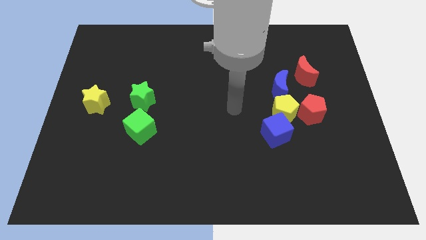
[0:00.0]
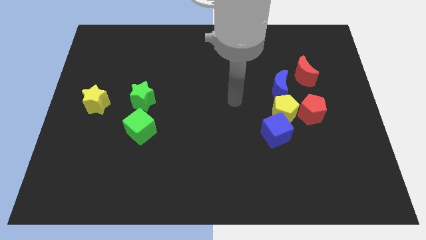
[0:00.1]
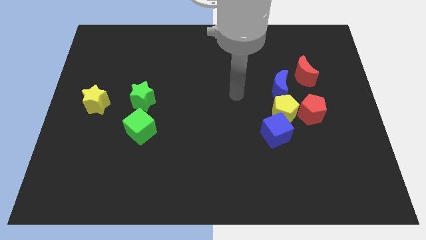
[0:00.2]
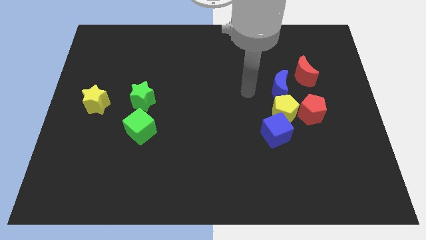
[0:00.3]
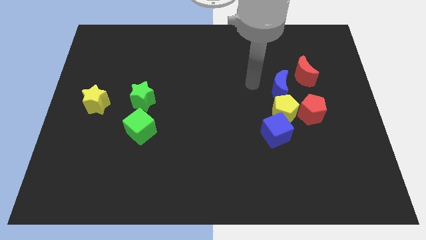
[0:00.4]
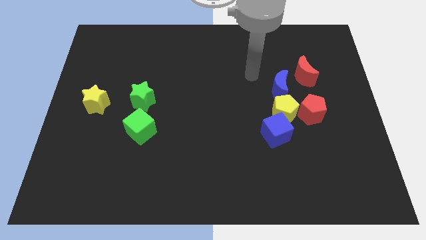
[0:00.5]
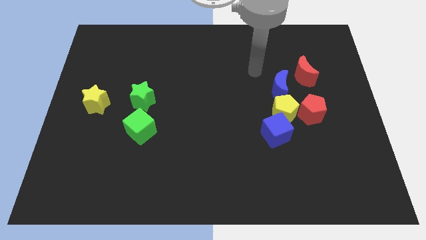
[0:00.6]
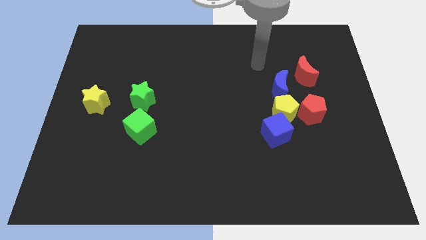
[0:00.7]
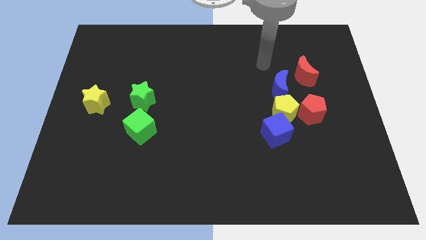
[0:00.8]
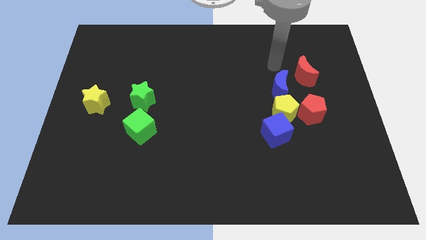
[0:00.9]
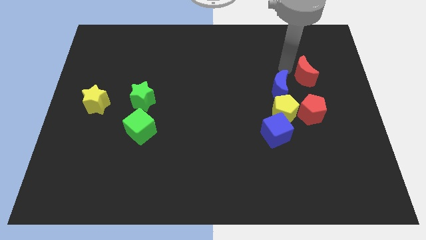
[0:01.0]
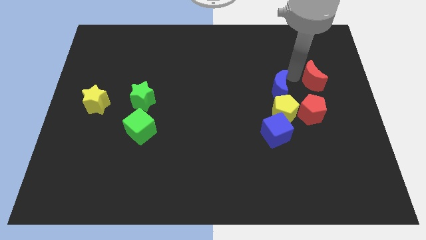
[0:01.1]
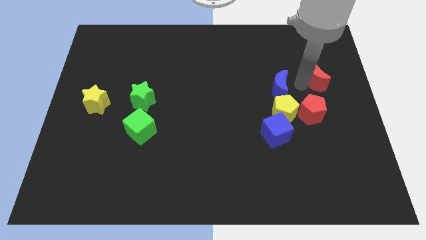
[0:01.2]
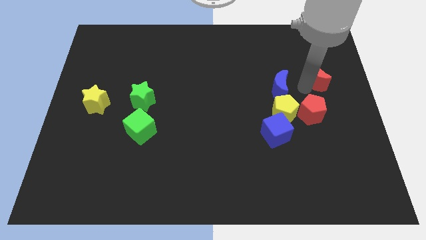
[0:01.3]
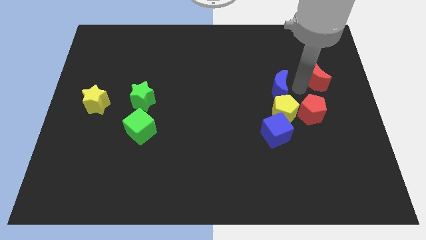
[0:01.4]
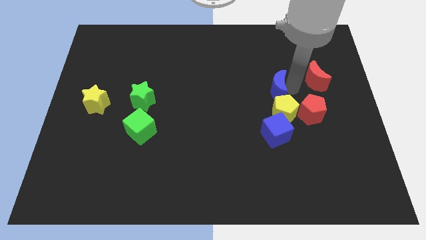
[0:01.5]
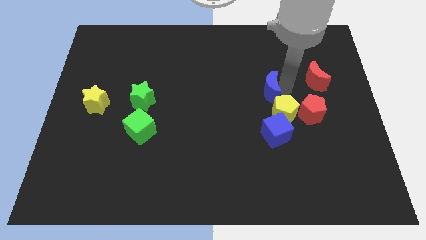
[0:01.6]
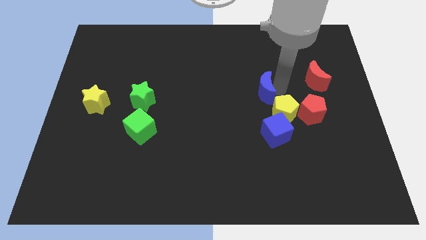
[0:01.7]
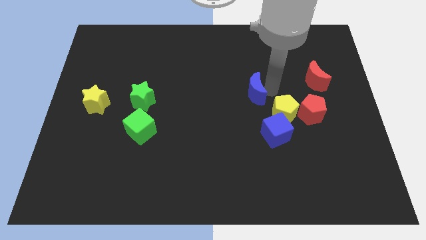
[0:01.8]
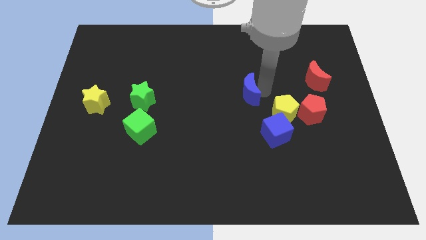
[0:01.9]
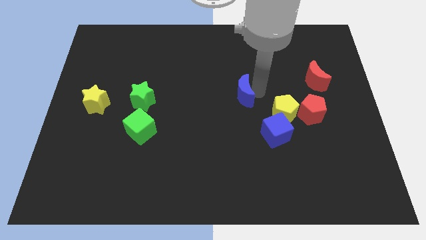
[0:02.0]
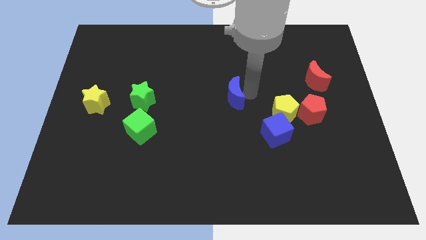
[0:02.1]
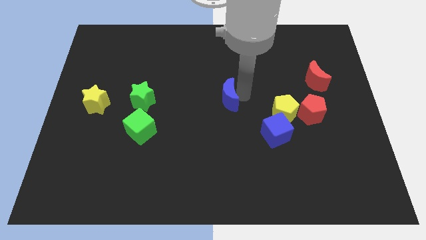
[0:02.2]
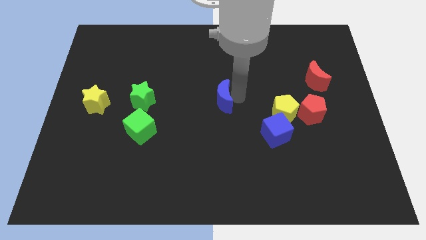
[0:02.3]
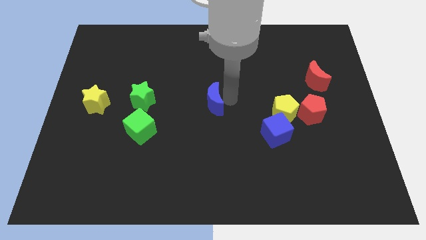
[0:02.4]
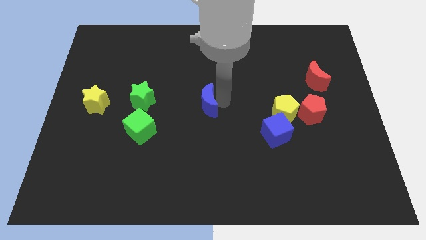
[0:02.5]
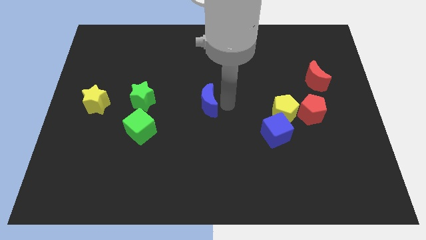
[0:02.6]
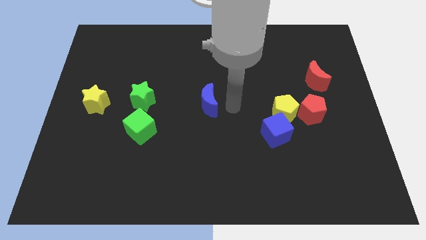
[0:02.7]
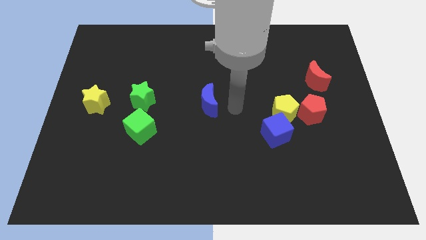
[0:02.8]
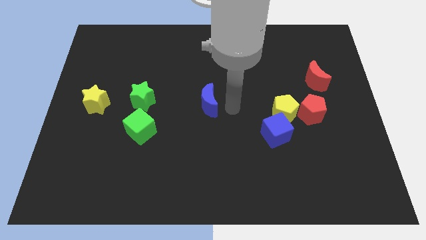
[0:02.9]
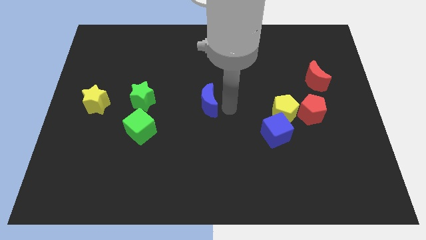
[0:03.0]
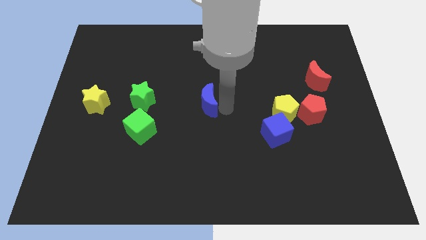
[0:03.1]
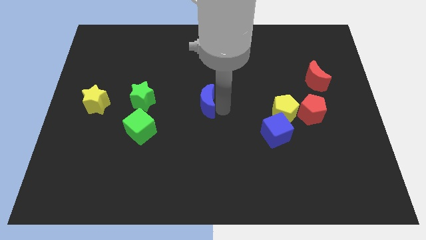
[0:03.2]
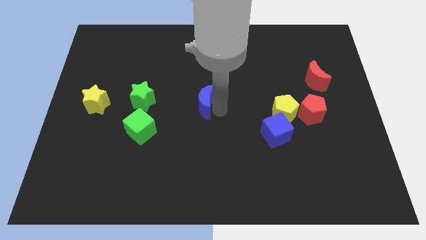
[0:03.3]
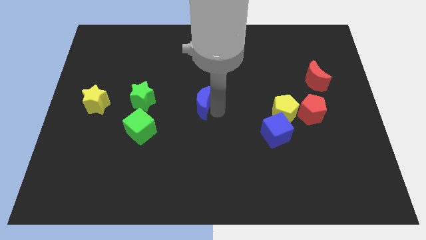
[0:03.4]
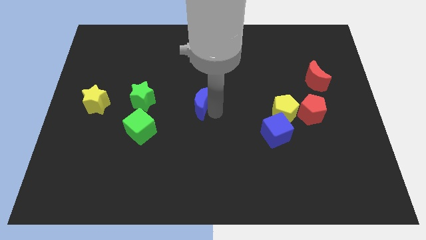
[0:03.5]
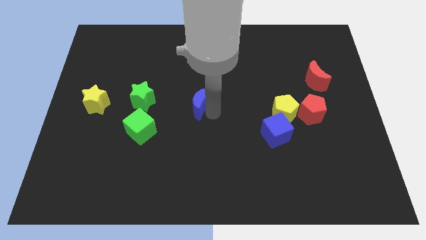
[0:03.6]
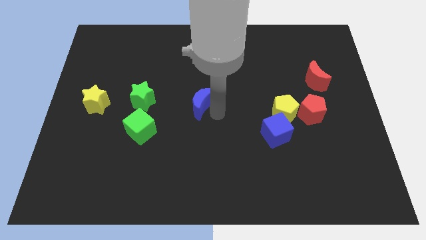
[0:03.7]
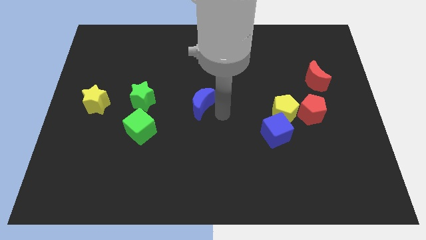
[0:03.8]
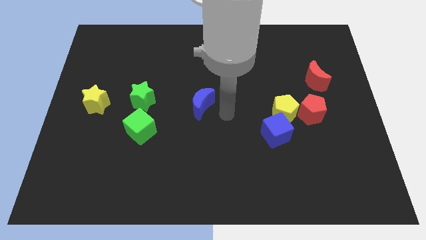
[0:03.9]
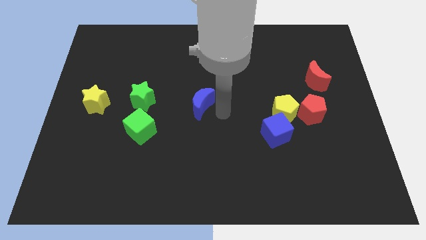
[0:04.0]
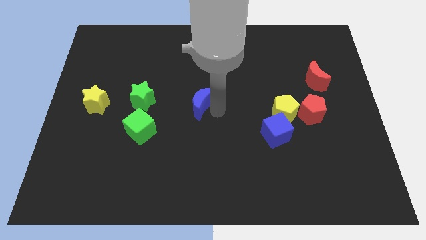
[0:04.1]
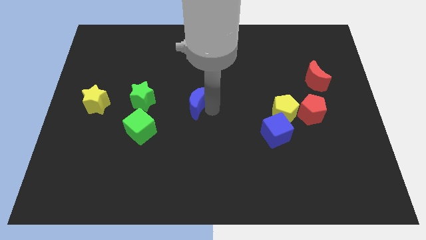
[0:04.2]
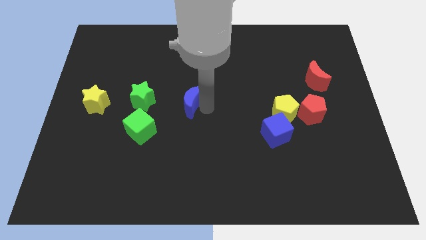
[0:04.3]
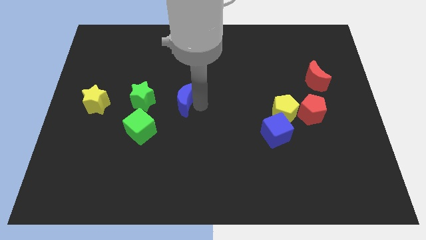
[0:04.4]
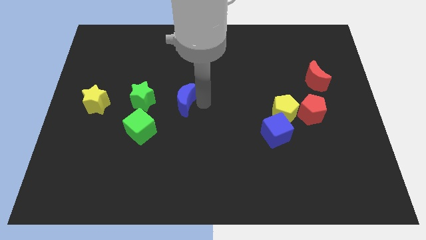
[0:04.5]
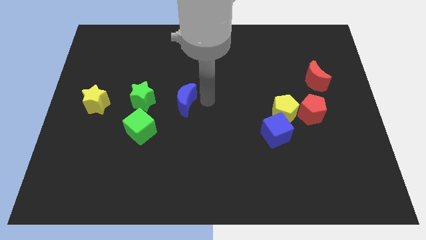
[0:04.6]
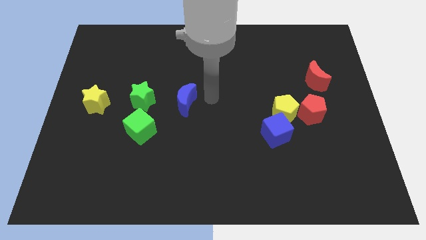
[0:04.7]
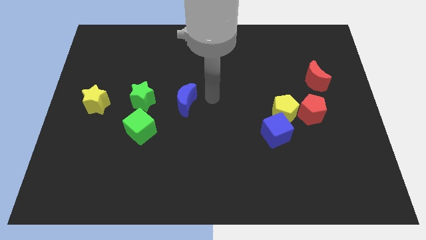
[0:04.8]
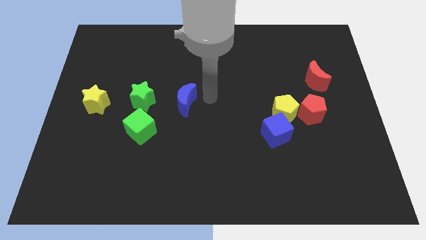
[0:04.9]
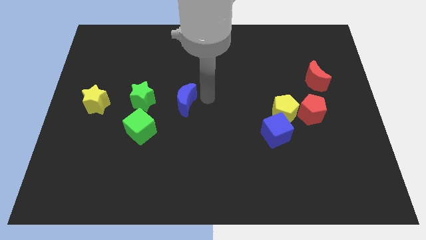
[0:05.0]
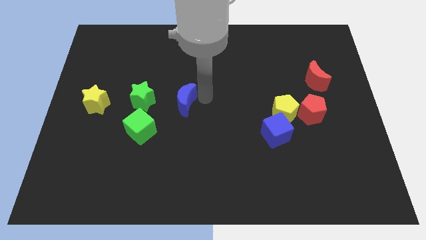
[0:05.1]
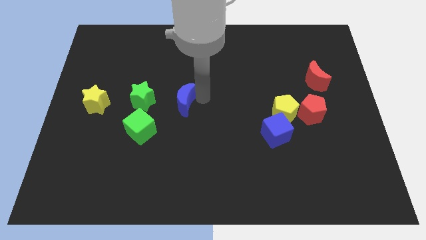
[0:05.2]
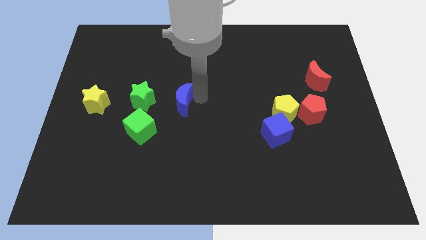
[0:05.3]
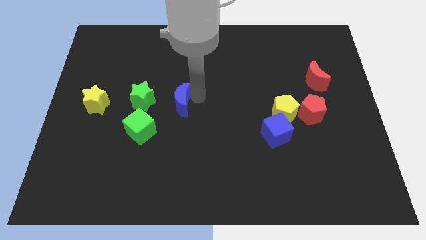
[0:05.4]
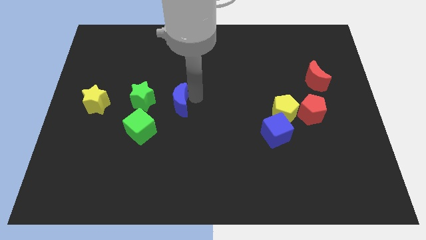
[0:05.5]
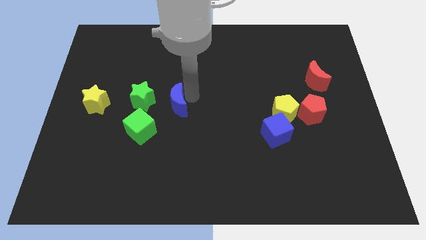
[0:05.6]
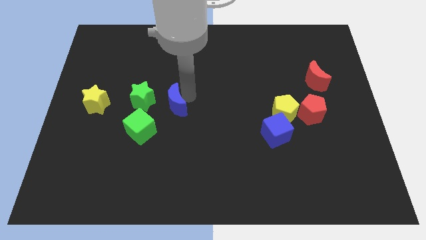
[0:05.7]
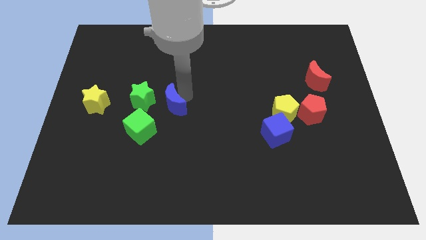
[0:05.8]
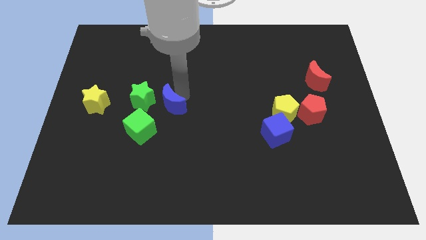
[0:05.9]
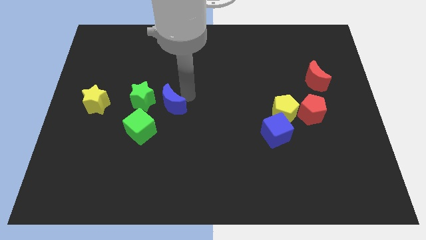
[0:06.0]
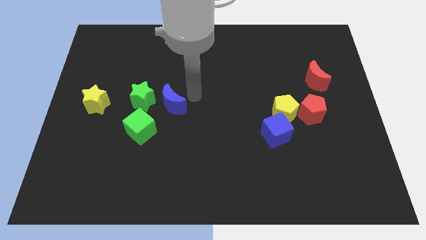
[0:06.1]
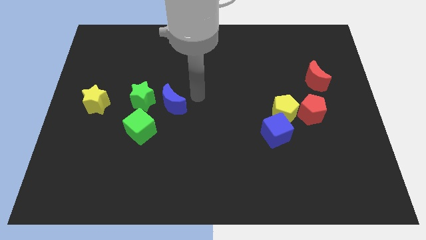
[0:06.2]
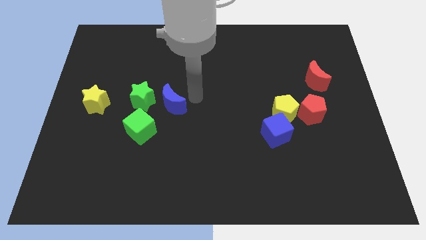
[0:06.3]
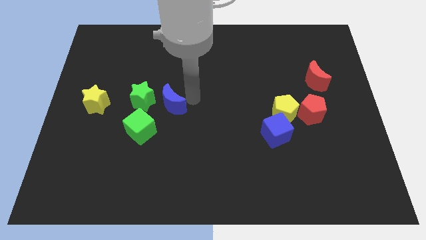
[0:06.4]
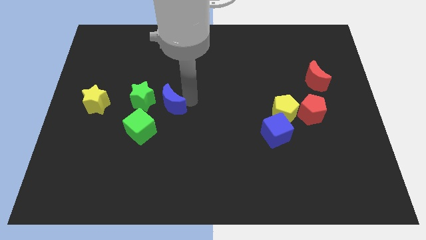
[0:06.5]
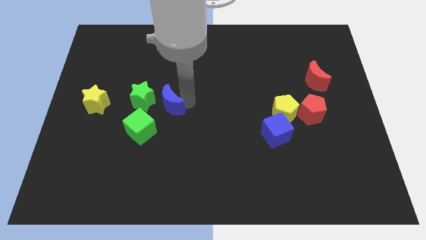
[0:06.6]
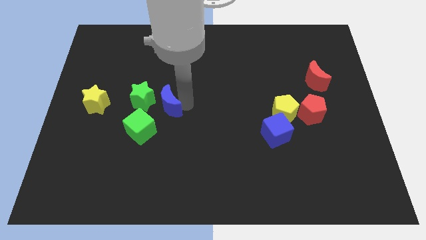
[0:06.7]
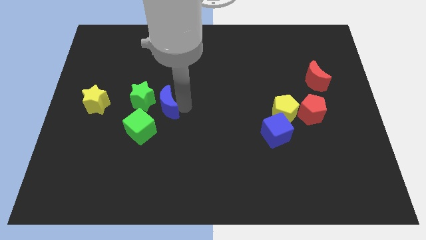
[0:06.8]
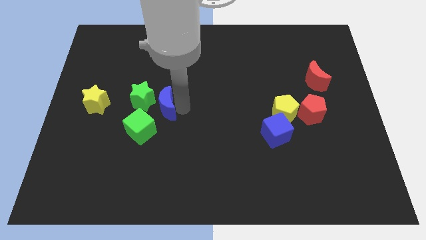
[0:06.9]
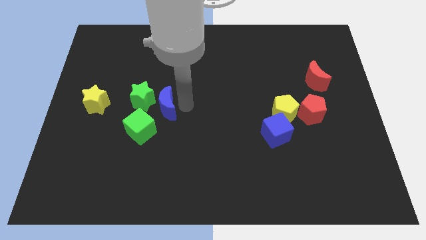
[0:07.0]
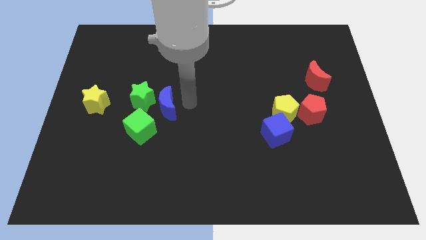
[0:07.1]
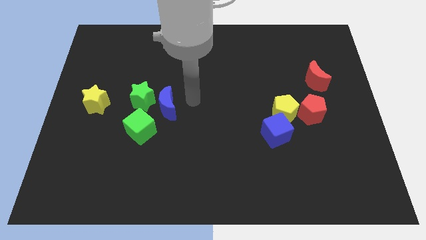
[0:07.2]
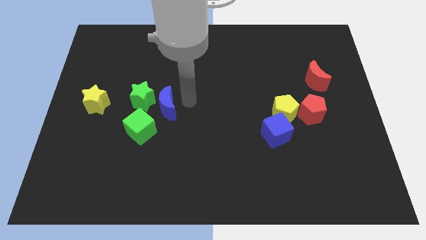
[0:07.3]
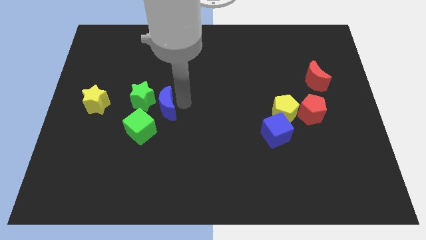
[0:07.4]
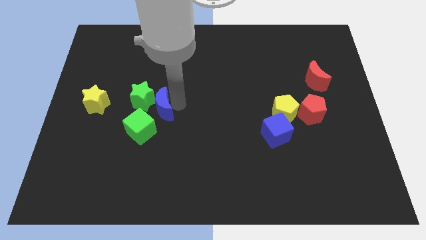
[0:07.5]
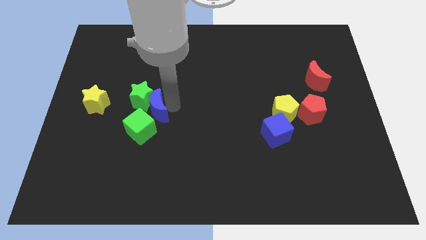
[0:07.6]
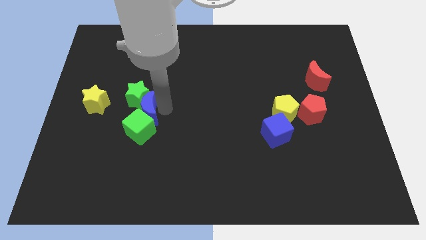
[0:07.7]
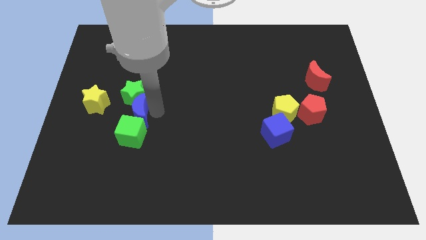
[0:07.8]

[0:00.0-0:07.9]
move the blue moon to the bottom left of the green star
